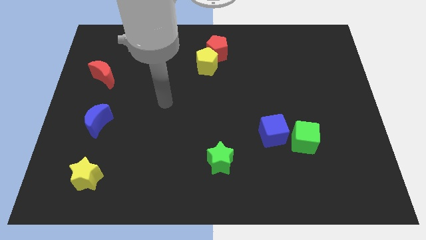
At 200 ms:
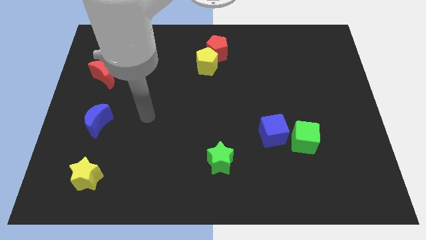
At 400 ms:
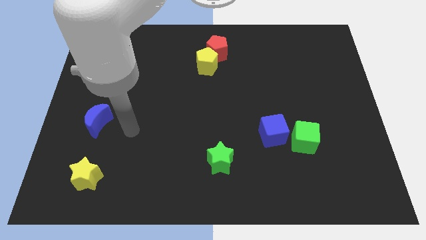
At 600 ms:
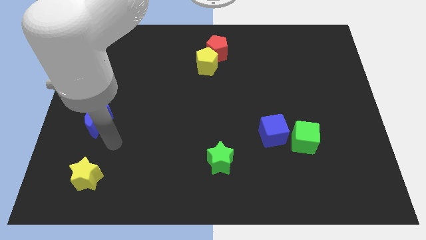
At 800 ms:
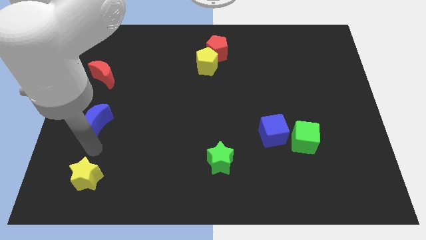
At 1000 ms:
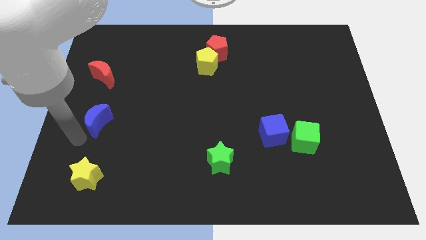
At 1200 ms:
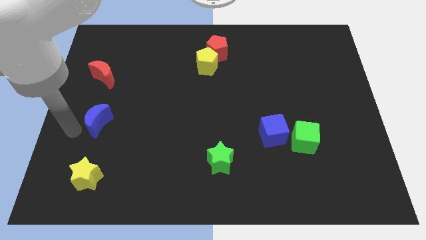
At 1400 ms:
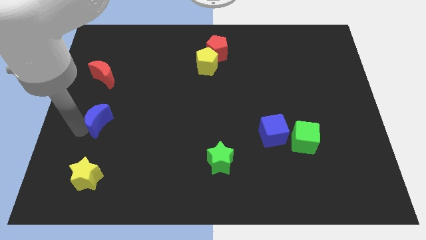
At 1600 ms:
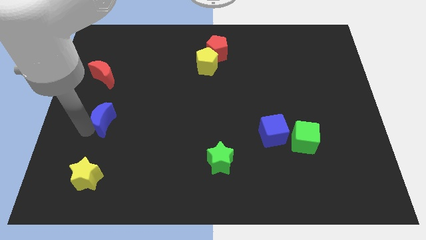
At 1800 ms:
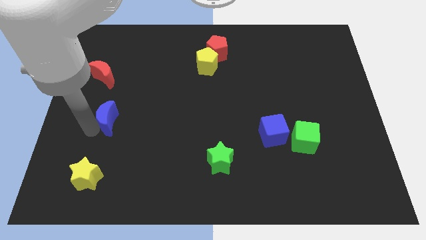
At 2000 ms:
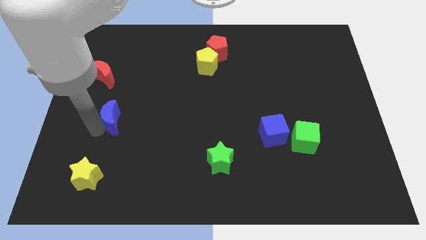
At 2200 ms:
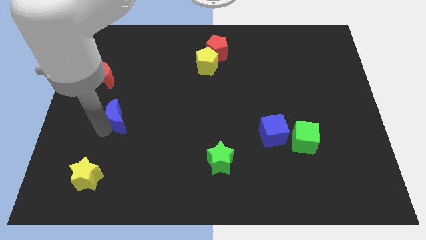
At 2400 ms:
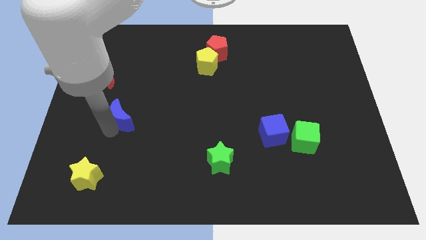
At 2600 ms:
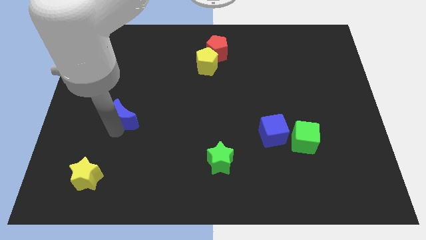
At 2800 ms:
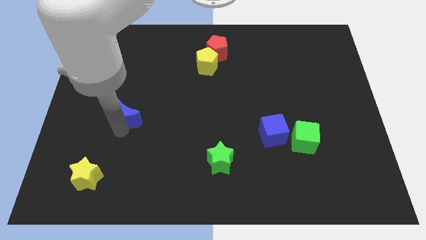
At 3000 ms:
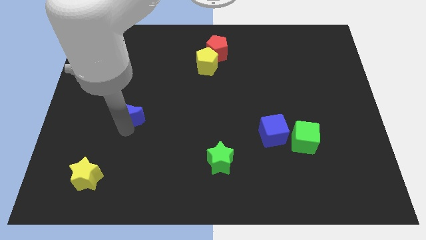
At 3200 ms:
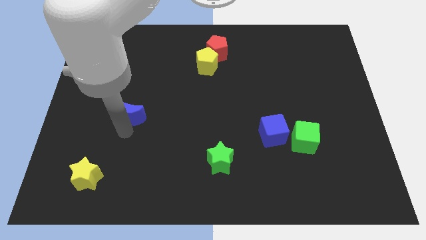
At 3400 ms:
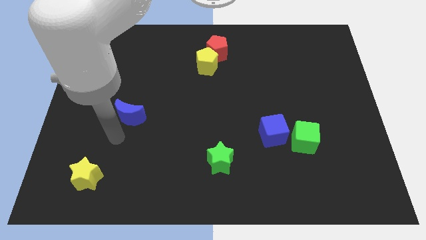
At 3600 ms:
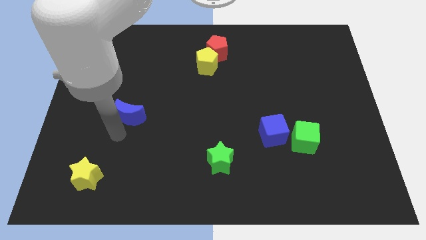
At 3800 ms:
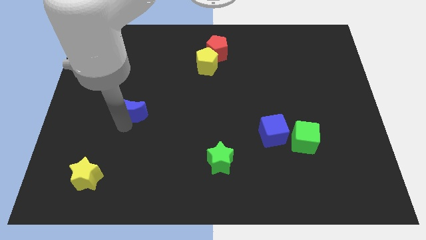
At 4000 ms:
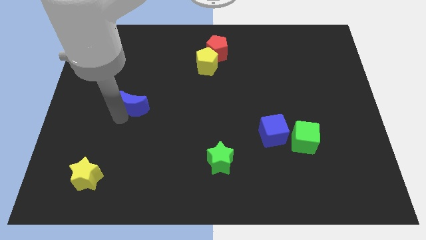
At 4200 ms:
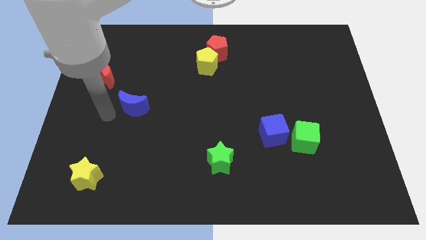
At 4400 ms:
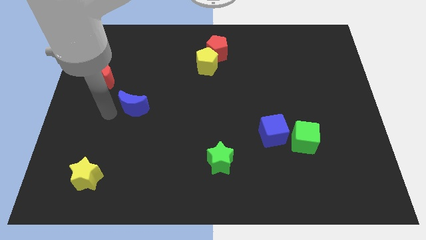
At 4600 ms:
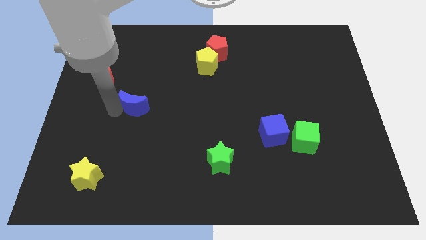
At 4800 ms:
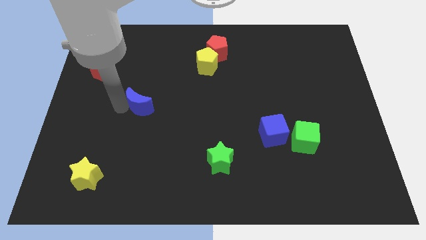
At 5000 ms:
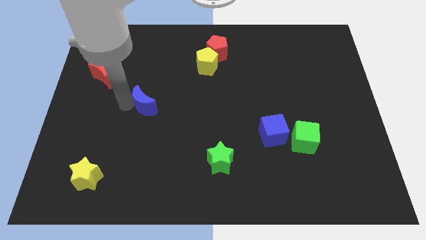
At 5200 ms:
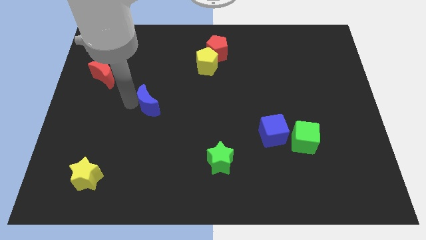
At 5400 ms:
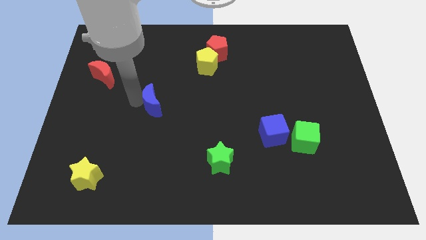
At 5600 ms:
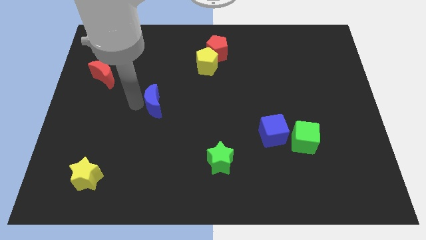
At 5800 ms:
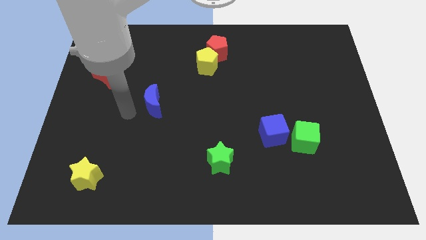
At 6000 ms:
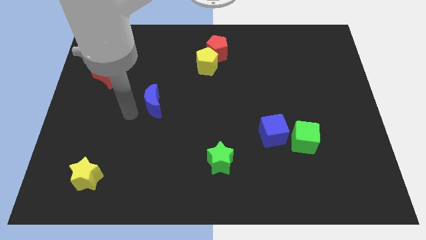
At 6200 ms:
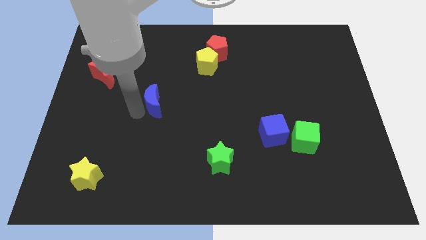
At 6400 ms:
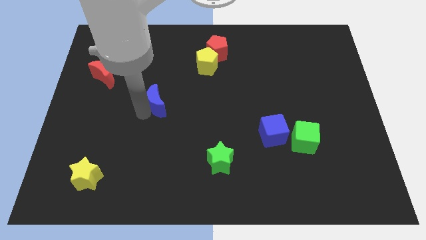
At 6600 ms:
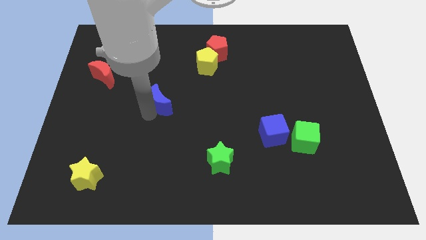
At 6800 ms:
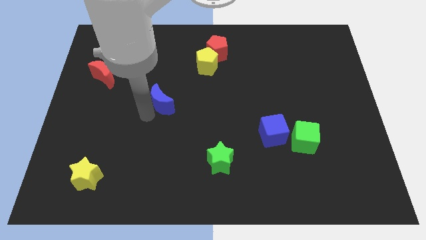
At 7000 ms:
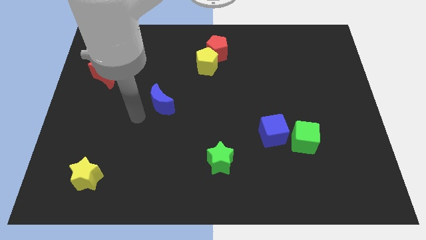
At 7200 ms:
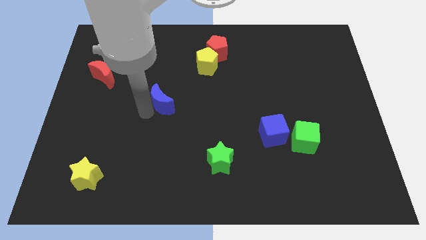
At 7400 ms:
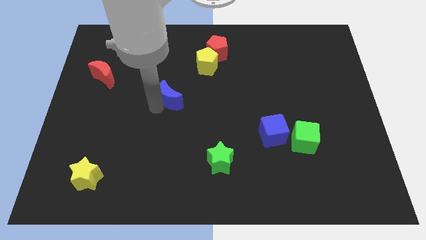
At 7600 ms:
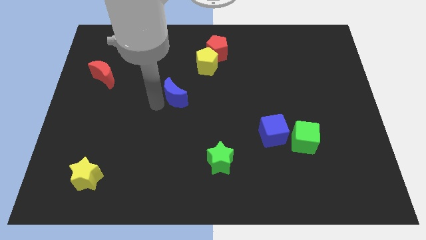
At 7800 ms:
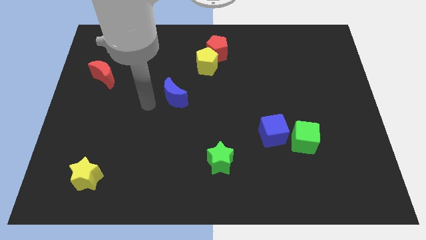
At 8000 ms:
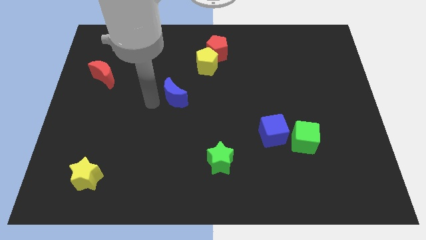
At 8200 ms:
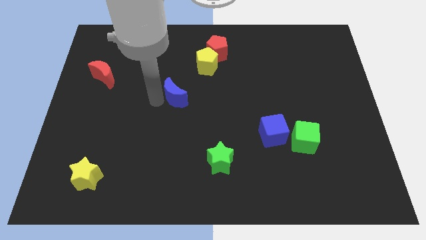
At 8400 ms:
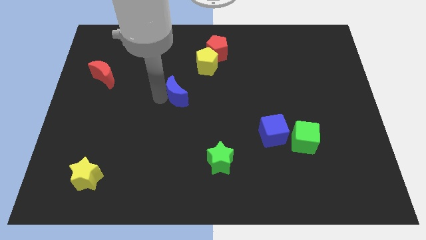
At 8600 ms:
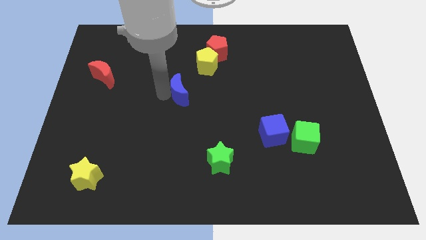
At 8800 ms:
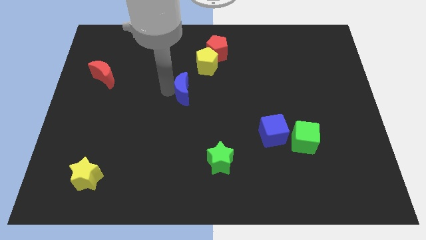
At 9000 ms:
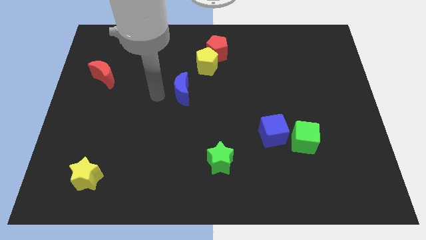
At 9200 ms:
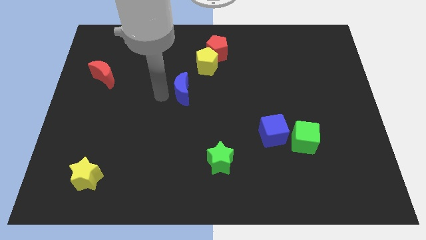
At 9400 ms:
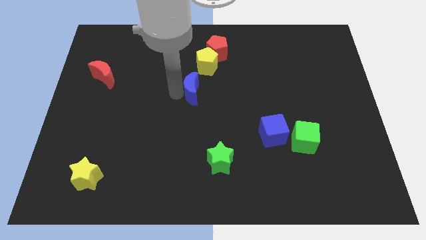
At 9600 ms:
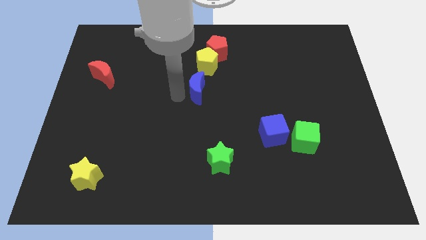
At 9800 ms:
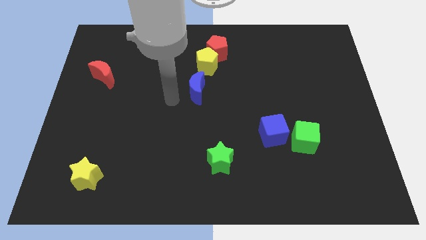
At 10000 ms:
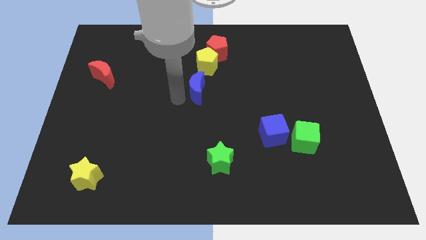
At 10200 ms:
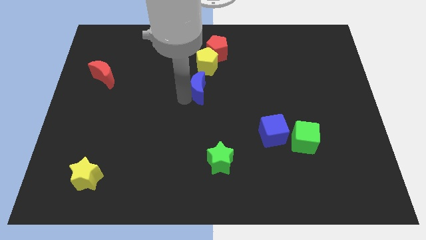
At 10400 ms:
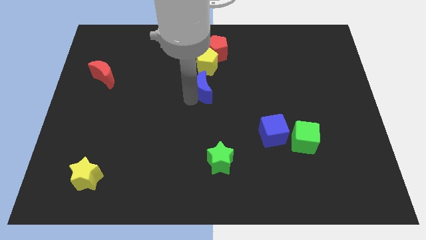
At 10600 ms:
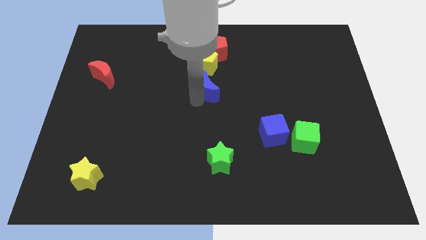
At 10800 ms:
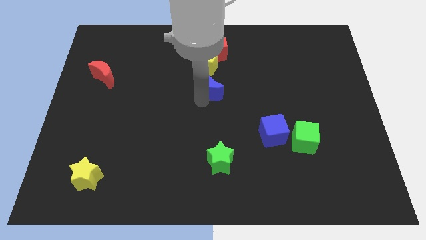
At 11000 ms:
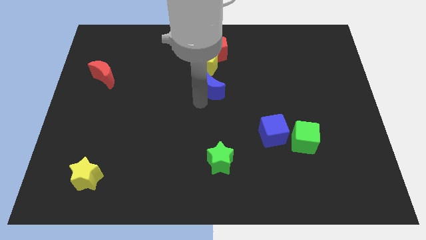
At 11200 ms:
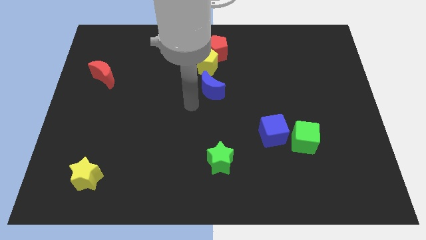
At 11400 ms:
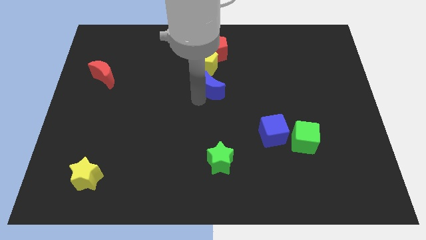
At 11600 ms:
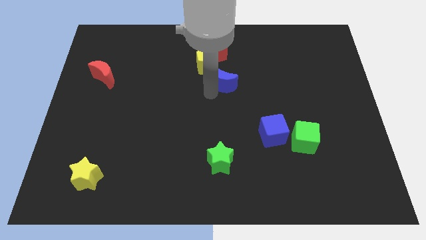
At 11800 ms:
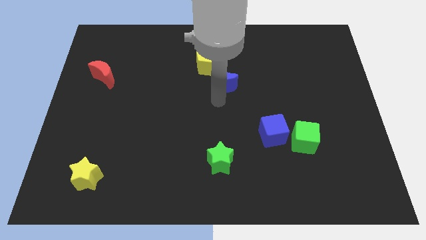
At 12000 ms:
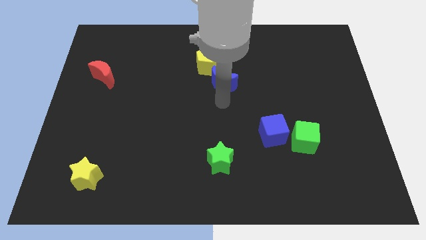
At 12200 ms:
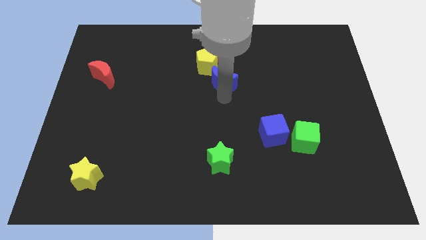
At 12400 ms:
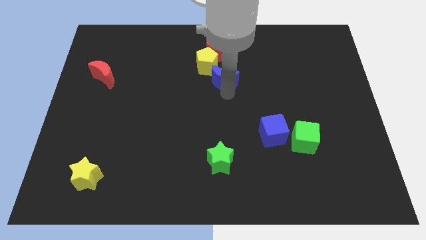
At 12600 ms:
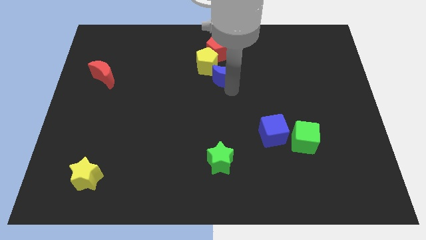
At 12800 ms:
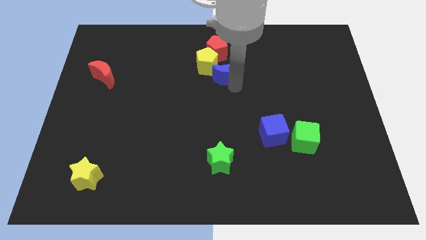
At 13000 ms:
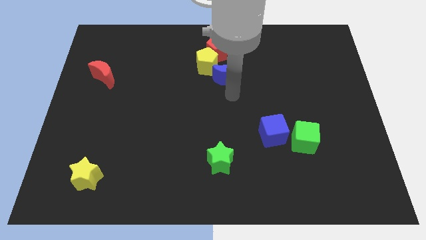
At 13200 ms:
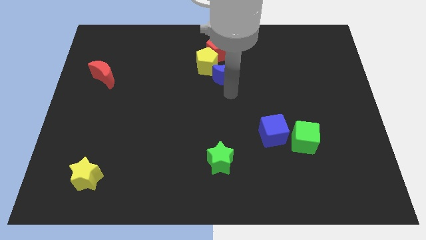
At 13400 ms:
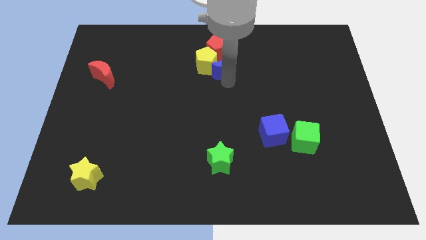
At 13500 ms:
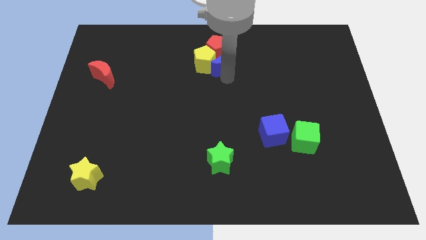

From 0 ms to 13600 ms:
move the blue moon to the red pentagon
